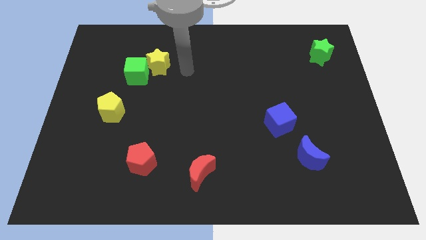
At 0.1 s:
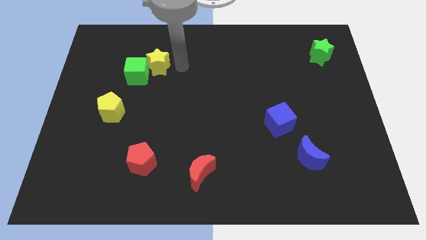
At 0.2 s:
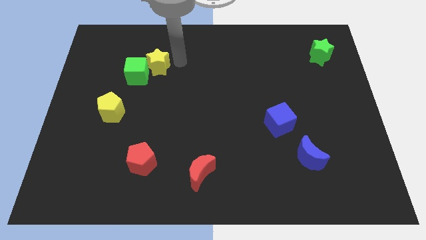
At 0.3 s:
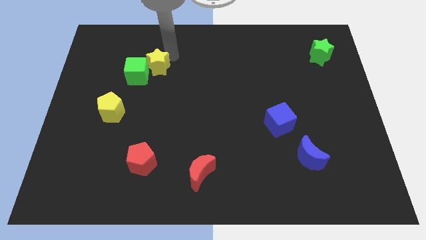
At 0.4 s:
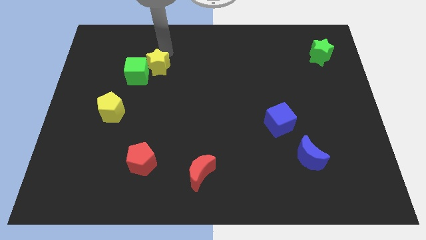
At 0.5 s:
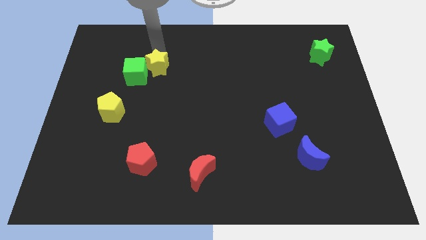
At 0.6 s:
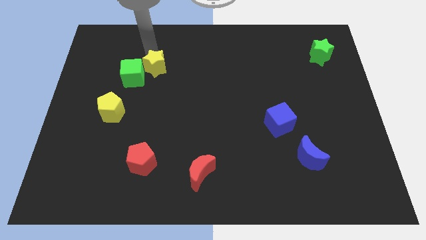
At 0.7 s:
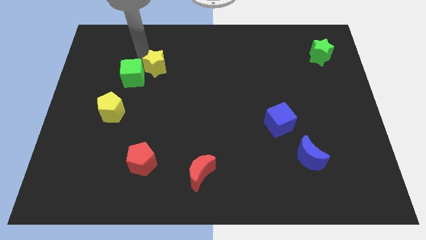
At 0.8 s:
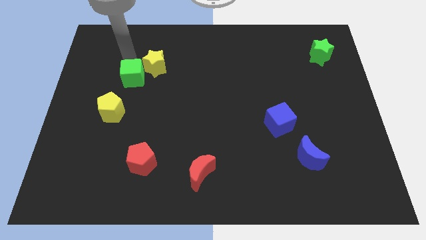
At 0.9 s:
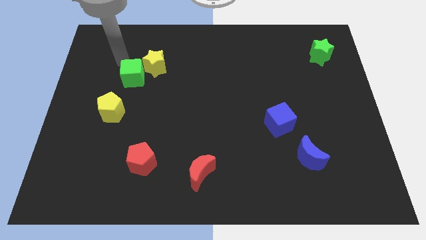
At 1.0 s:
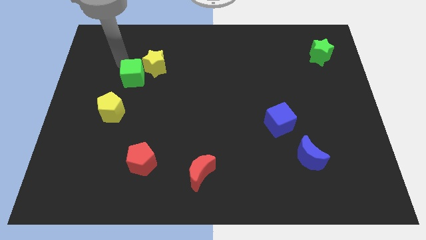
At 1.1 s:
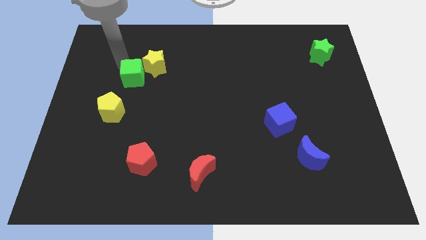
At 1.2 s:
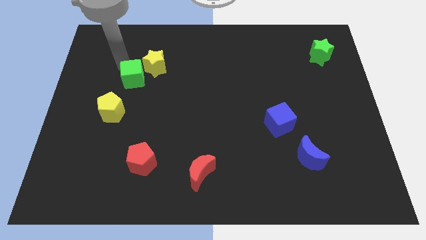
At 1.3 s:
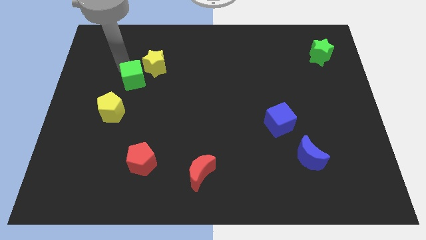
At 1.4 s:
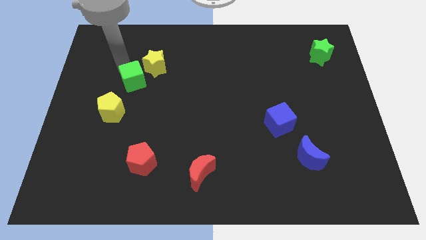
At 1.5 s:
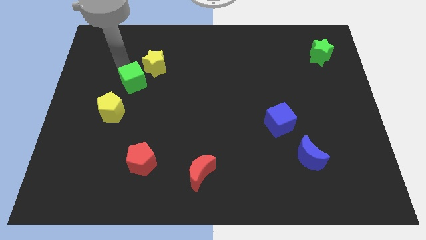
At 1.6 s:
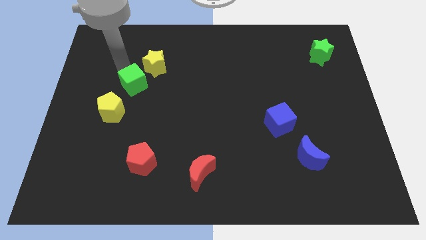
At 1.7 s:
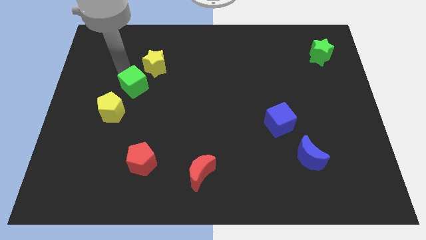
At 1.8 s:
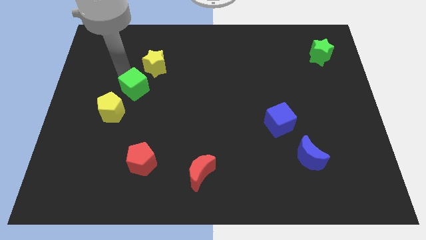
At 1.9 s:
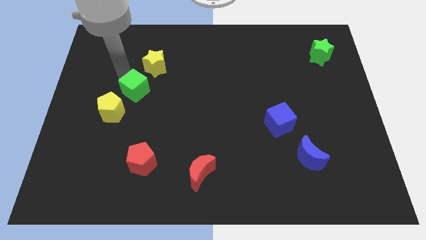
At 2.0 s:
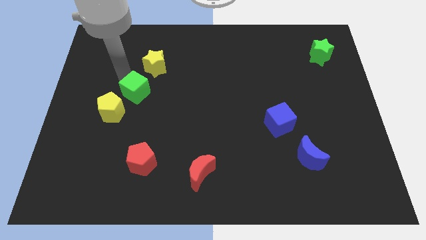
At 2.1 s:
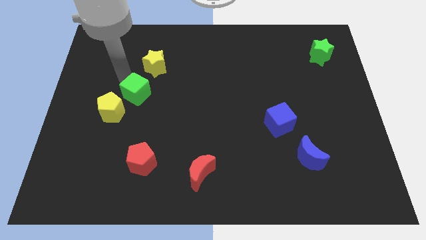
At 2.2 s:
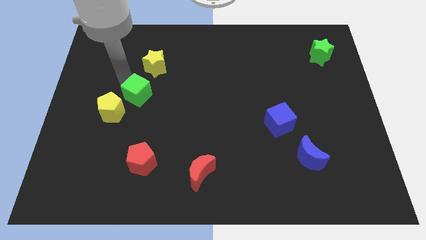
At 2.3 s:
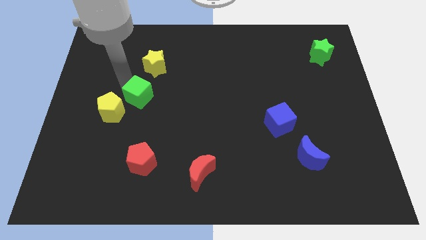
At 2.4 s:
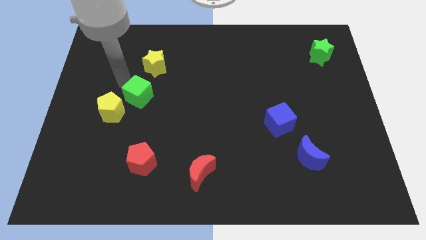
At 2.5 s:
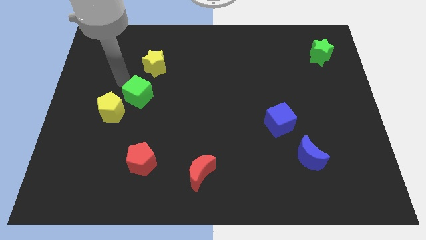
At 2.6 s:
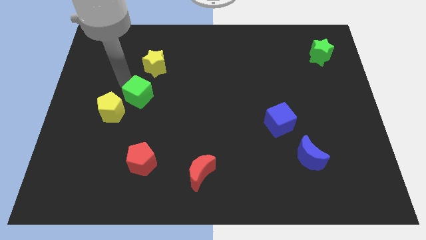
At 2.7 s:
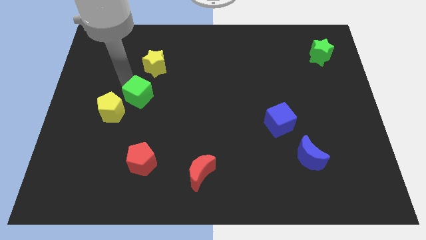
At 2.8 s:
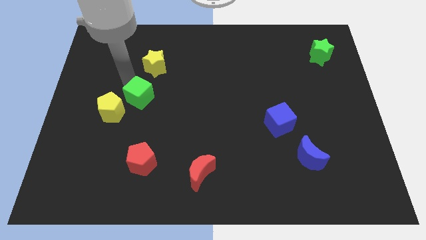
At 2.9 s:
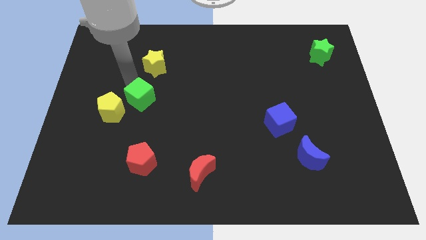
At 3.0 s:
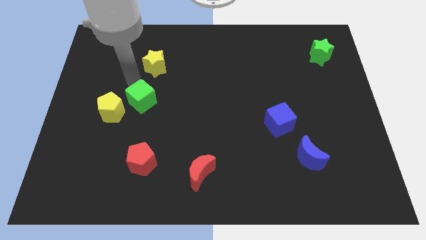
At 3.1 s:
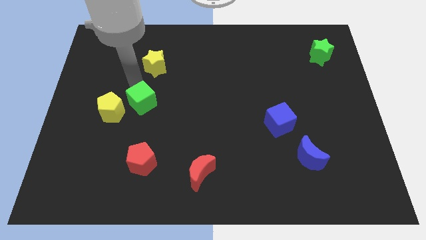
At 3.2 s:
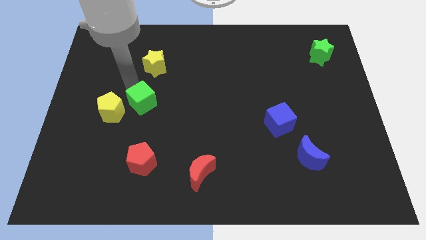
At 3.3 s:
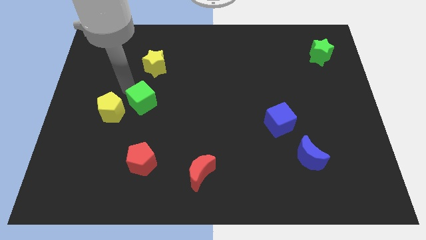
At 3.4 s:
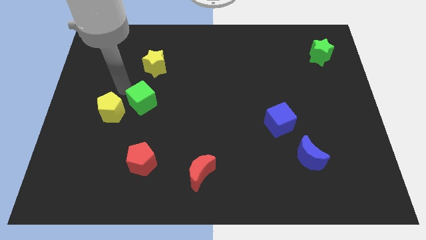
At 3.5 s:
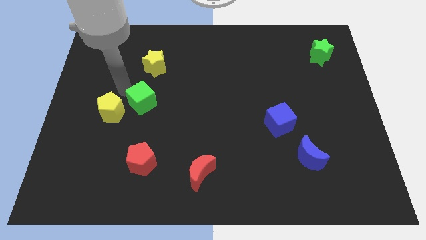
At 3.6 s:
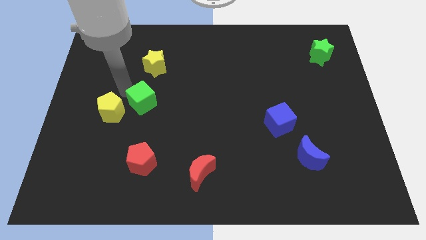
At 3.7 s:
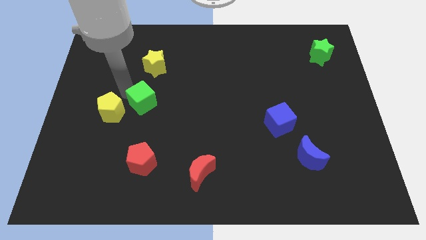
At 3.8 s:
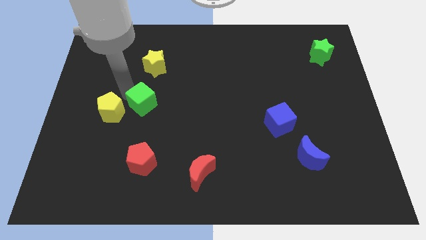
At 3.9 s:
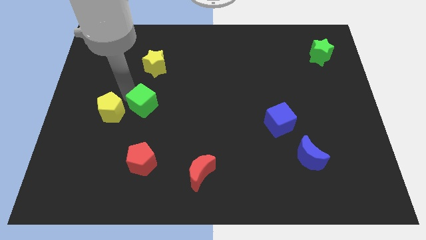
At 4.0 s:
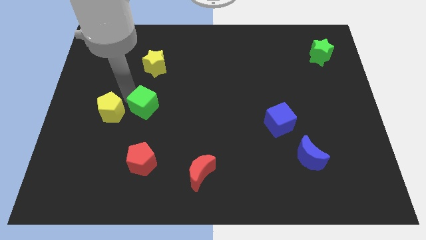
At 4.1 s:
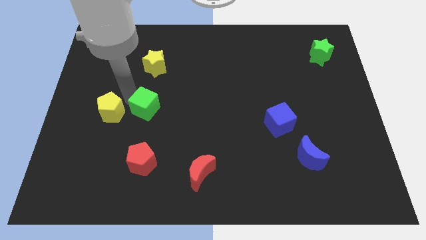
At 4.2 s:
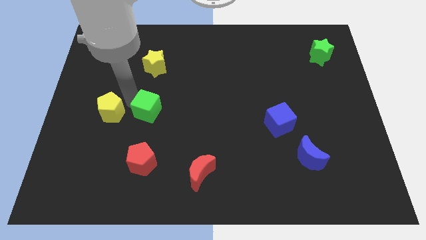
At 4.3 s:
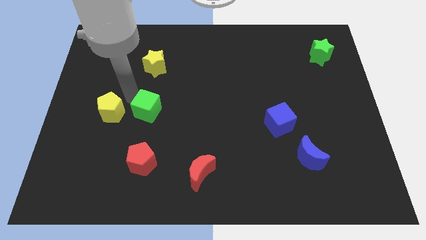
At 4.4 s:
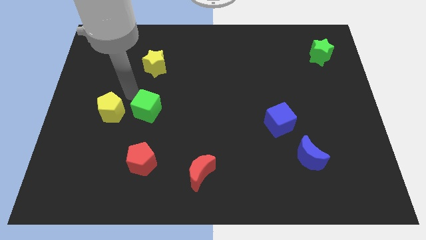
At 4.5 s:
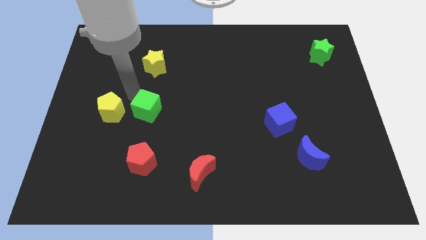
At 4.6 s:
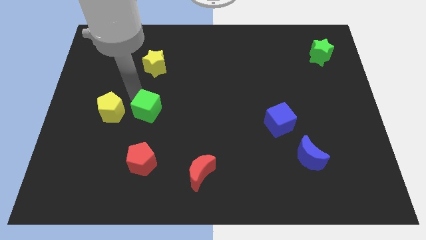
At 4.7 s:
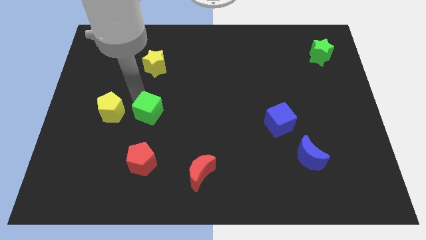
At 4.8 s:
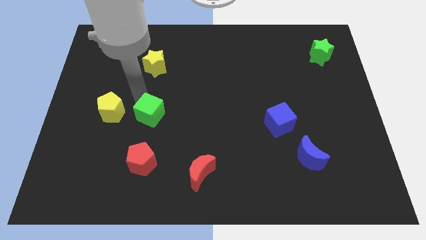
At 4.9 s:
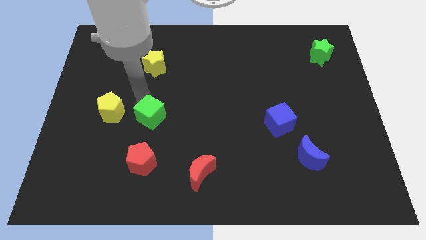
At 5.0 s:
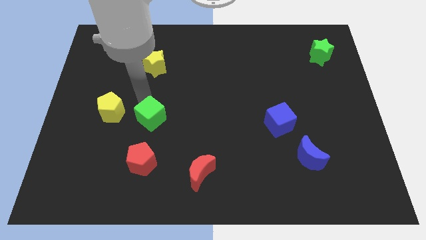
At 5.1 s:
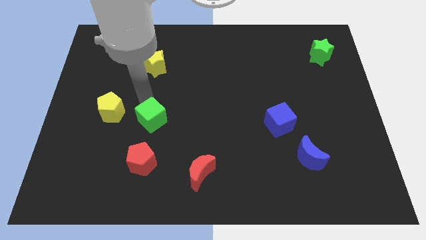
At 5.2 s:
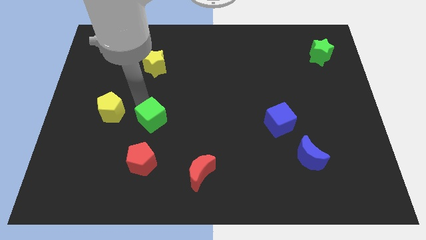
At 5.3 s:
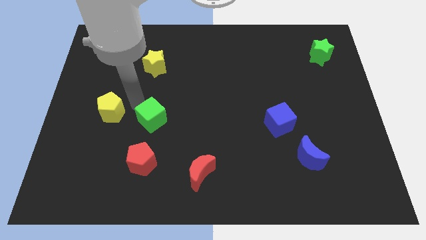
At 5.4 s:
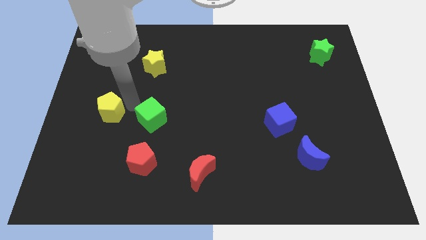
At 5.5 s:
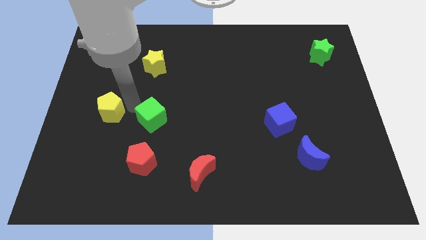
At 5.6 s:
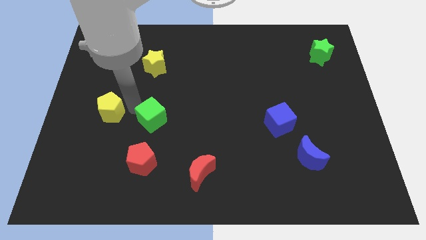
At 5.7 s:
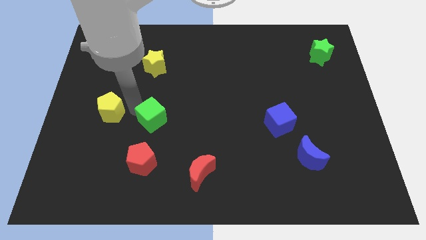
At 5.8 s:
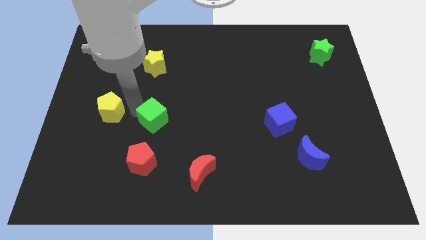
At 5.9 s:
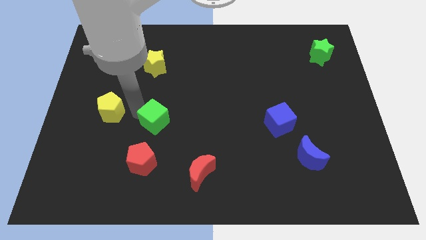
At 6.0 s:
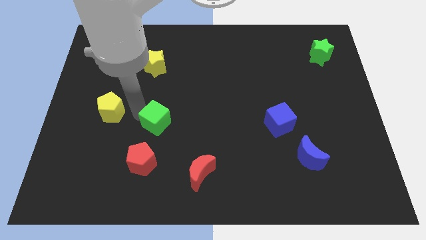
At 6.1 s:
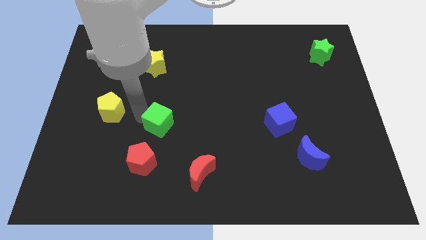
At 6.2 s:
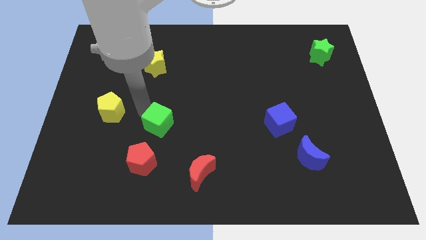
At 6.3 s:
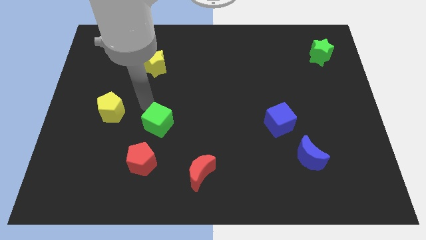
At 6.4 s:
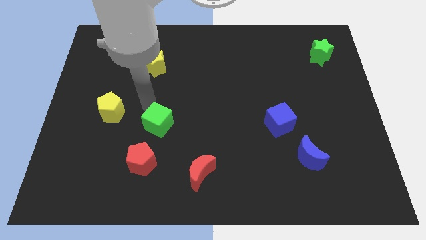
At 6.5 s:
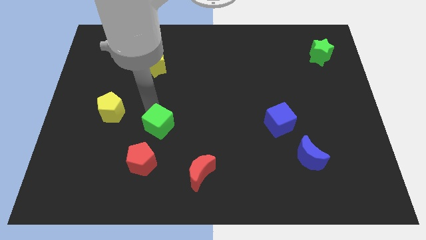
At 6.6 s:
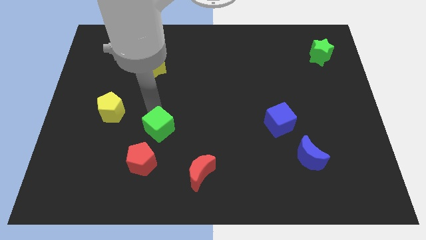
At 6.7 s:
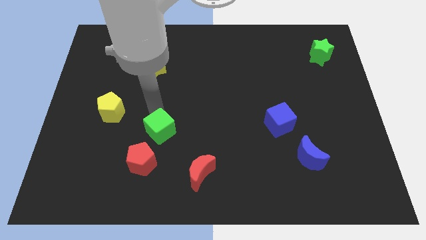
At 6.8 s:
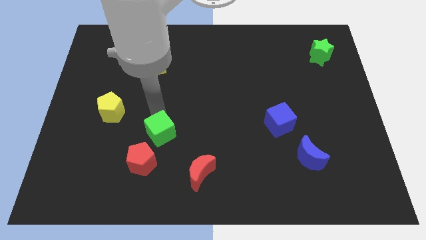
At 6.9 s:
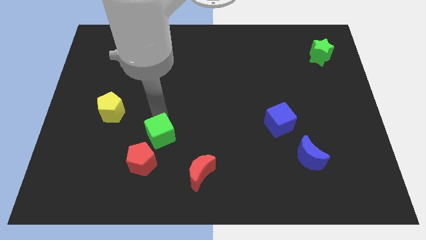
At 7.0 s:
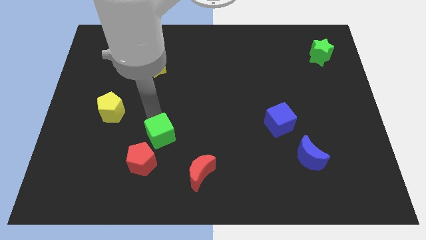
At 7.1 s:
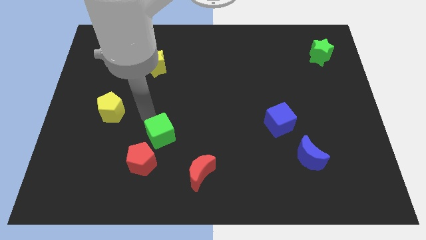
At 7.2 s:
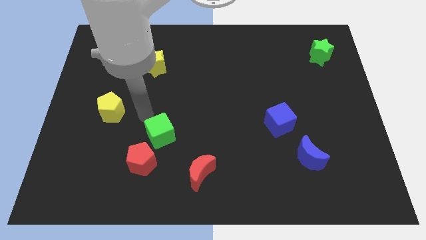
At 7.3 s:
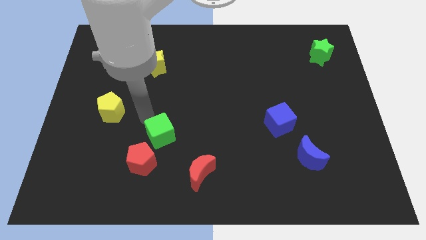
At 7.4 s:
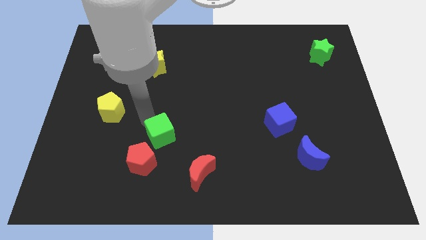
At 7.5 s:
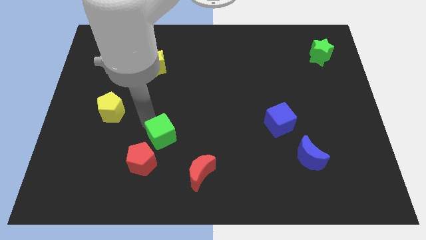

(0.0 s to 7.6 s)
push the green cube to the top left of the red moon

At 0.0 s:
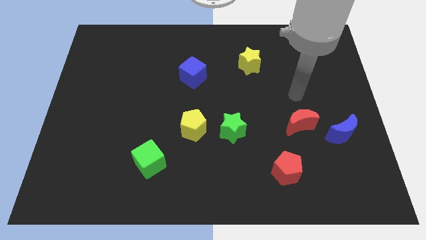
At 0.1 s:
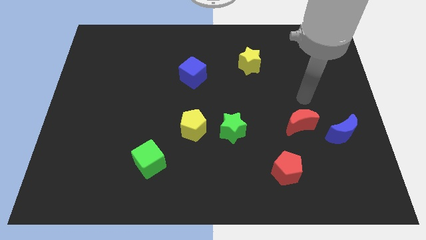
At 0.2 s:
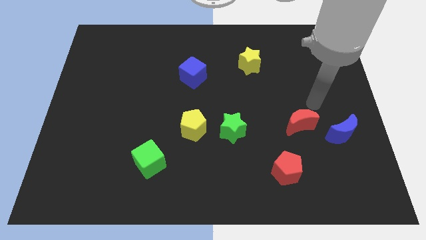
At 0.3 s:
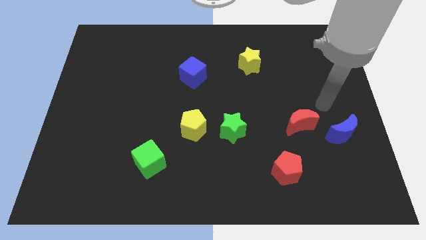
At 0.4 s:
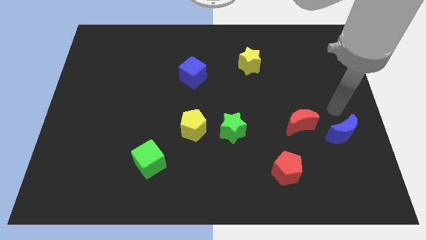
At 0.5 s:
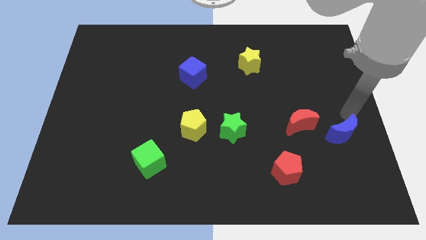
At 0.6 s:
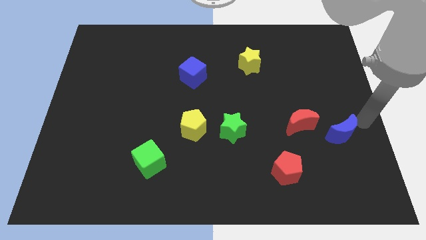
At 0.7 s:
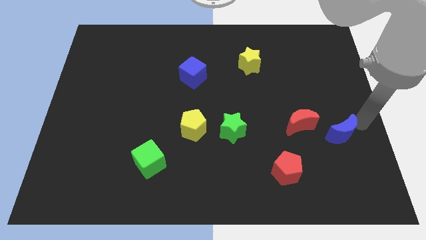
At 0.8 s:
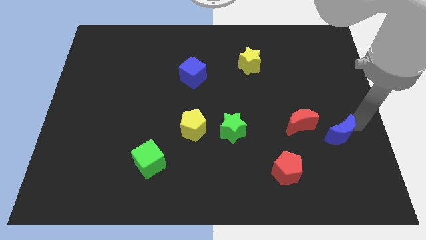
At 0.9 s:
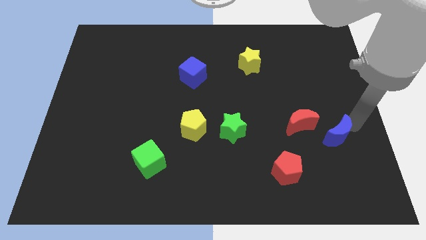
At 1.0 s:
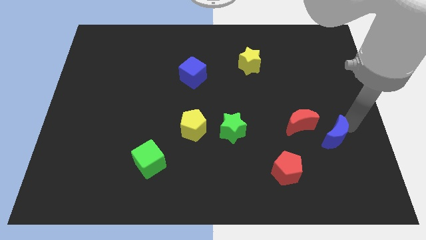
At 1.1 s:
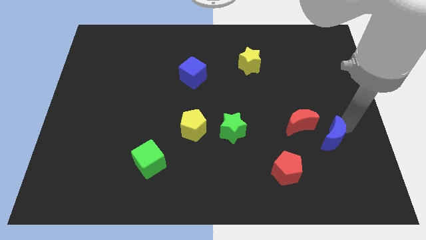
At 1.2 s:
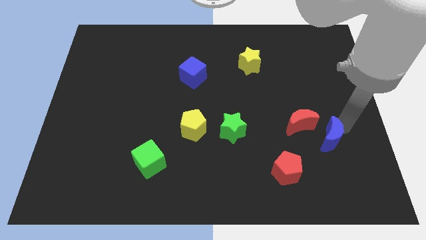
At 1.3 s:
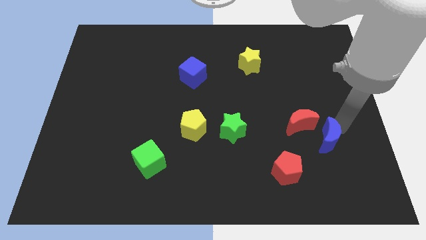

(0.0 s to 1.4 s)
push the blue moon to the top right of the red pentagon
